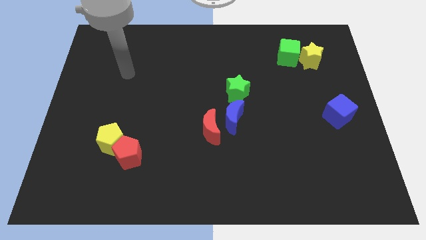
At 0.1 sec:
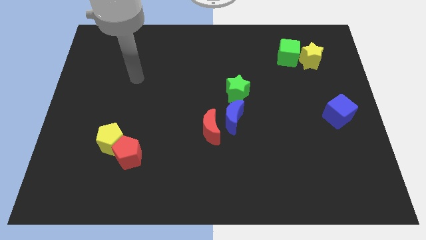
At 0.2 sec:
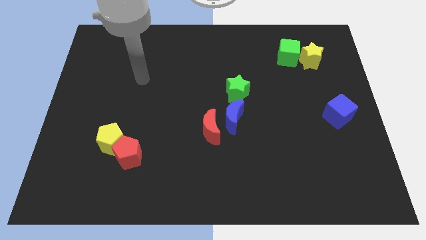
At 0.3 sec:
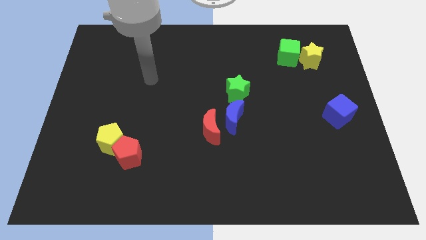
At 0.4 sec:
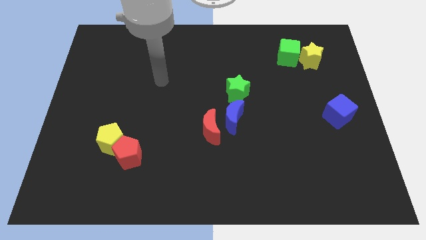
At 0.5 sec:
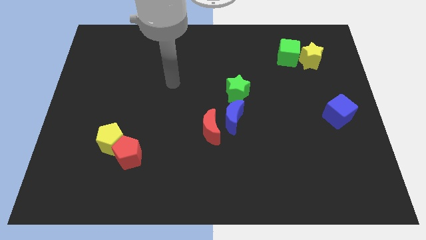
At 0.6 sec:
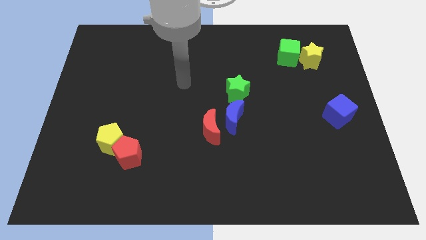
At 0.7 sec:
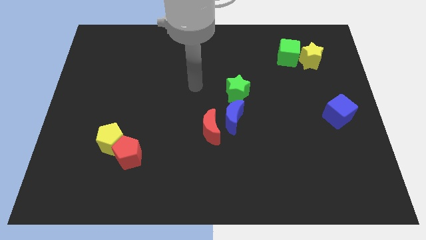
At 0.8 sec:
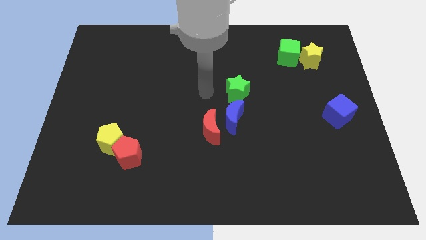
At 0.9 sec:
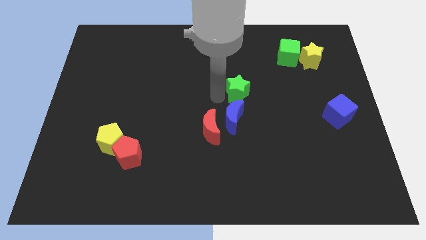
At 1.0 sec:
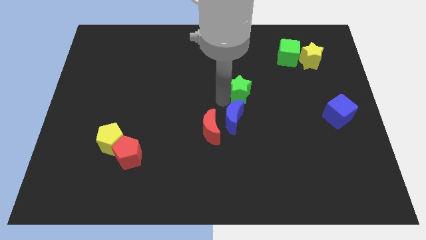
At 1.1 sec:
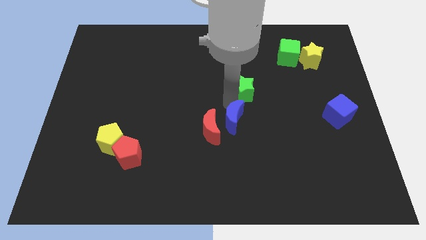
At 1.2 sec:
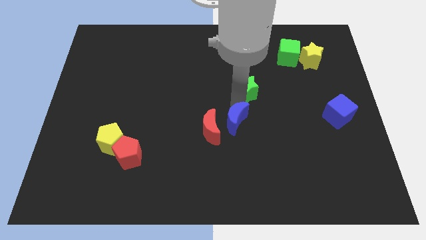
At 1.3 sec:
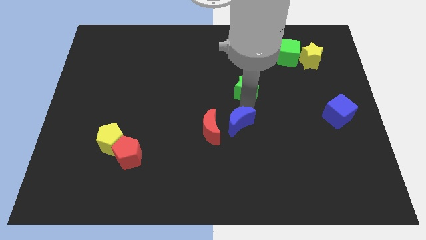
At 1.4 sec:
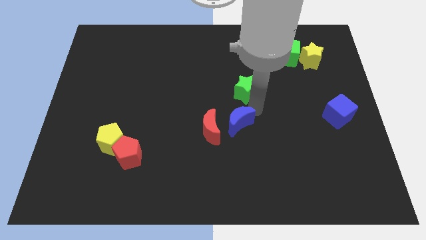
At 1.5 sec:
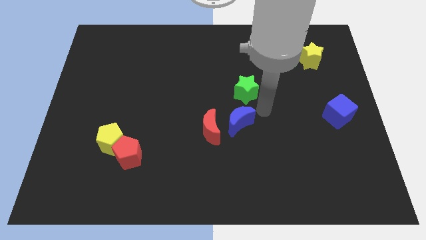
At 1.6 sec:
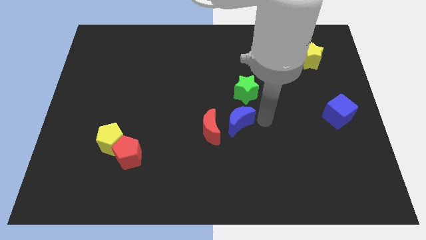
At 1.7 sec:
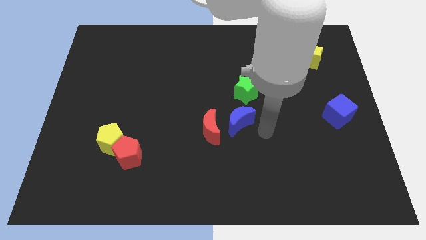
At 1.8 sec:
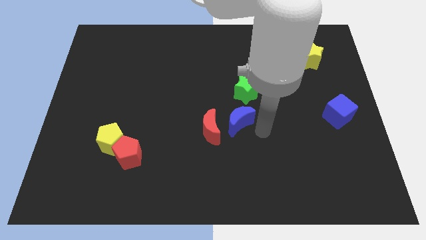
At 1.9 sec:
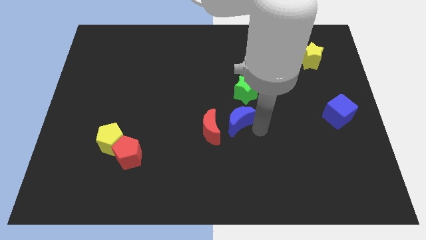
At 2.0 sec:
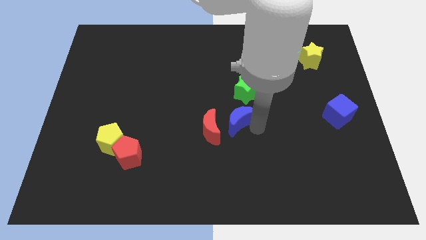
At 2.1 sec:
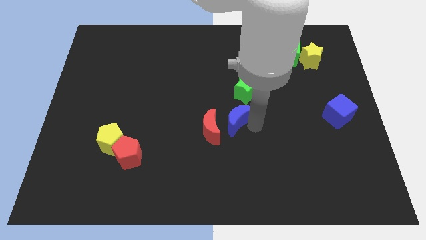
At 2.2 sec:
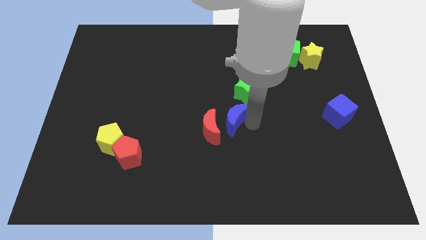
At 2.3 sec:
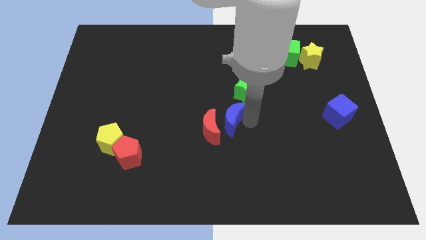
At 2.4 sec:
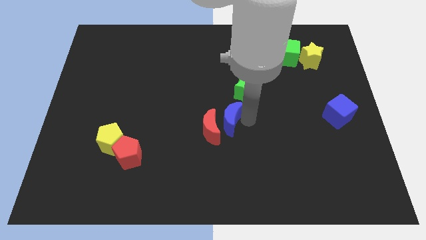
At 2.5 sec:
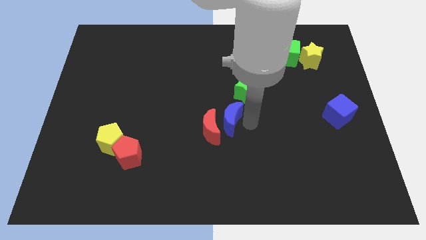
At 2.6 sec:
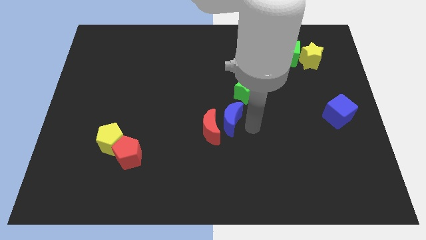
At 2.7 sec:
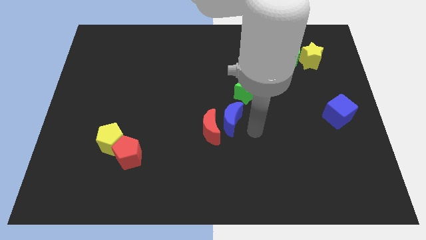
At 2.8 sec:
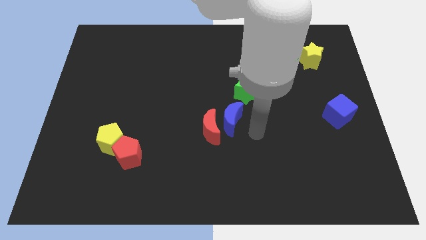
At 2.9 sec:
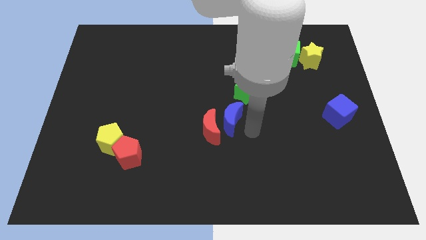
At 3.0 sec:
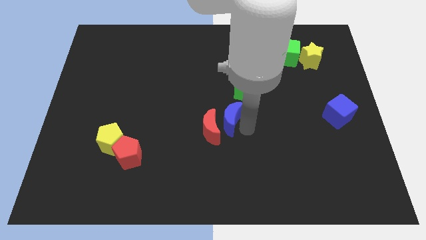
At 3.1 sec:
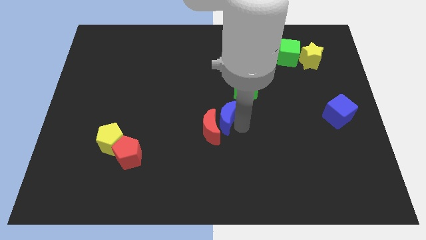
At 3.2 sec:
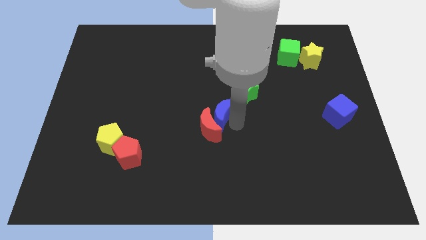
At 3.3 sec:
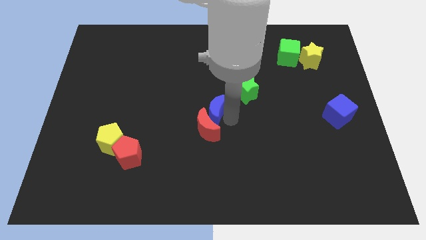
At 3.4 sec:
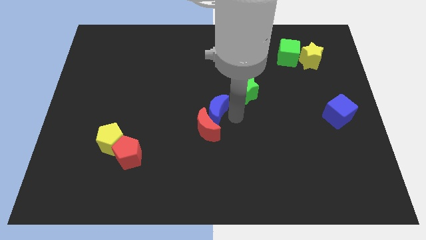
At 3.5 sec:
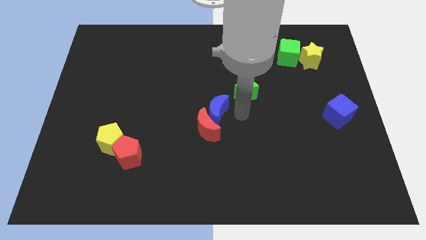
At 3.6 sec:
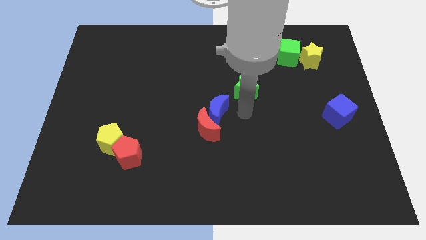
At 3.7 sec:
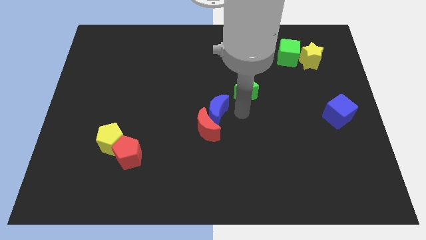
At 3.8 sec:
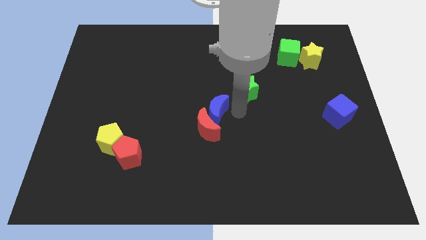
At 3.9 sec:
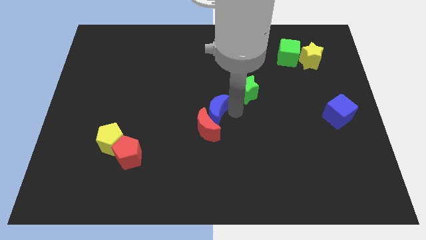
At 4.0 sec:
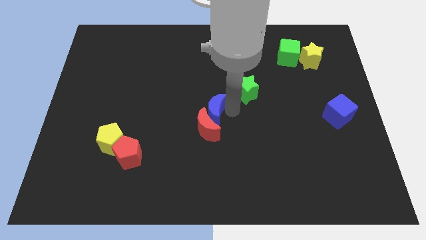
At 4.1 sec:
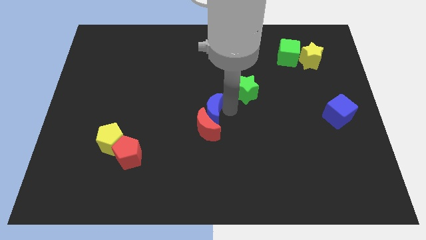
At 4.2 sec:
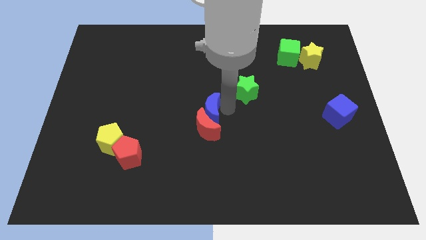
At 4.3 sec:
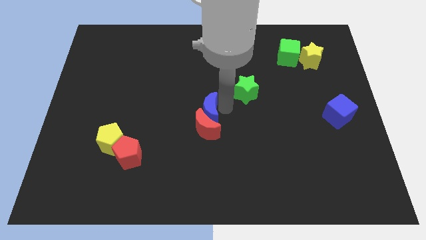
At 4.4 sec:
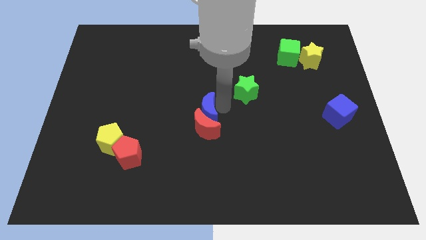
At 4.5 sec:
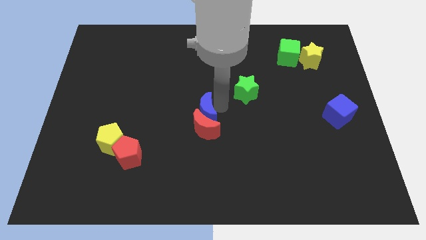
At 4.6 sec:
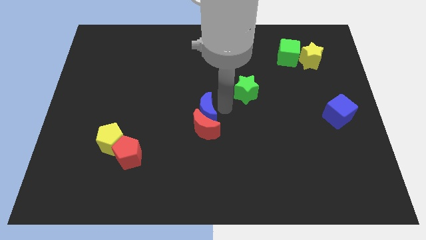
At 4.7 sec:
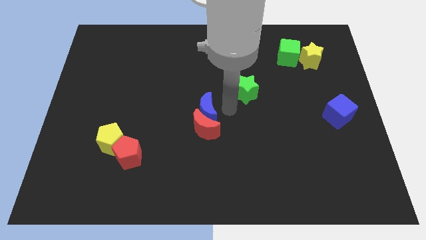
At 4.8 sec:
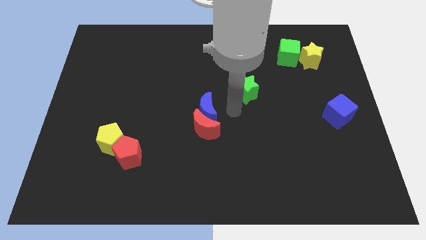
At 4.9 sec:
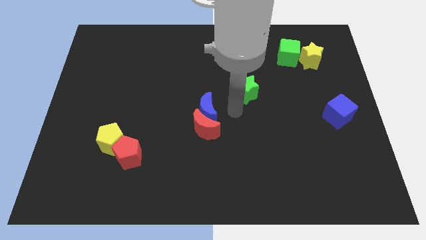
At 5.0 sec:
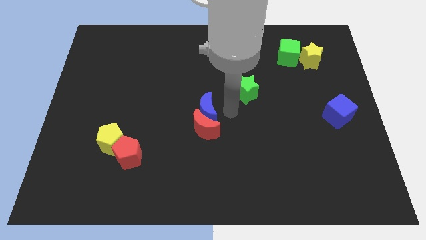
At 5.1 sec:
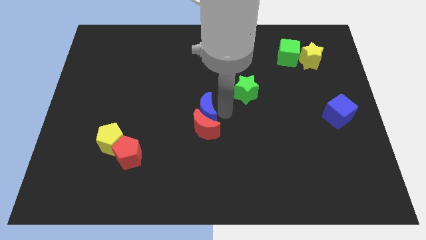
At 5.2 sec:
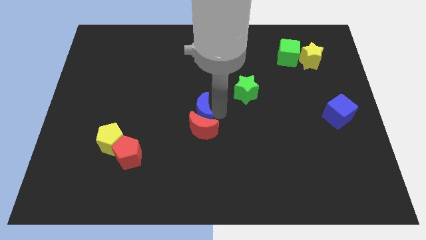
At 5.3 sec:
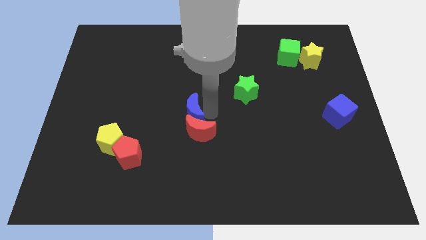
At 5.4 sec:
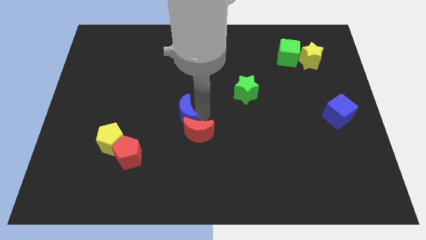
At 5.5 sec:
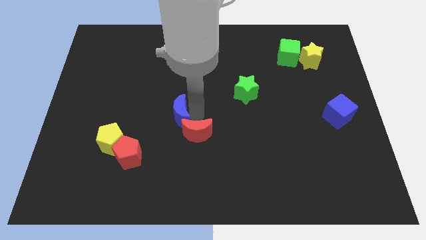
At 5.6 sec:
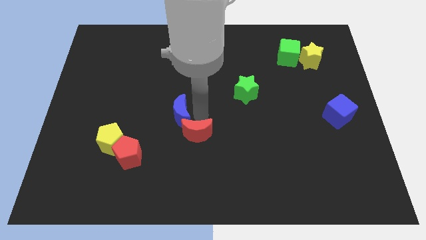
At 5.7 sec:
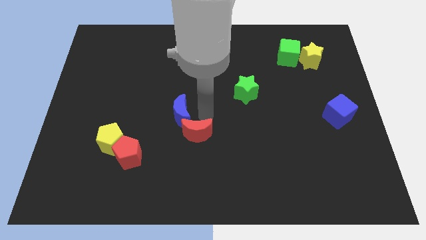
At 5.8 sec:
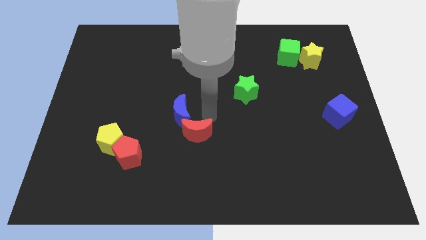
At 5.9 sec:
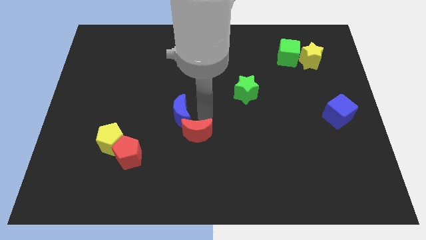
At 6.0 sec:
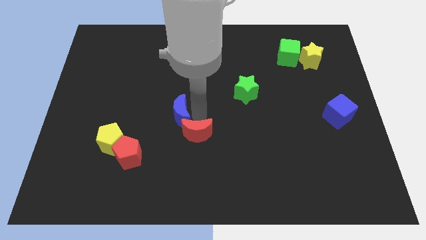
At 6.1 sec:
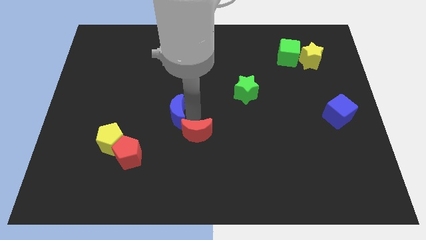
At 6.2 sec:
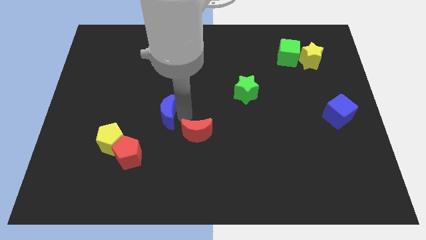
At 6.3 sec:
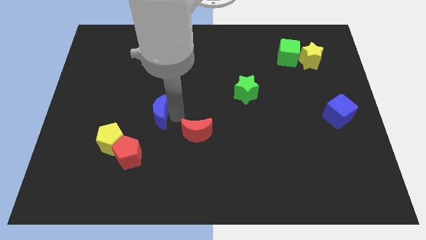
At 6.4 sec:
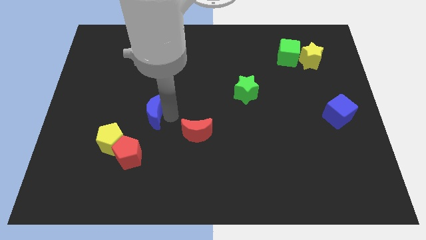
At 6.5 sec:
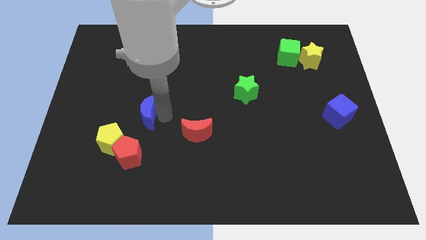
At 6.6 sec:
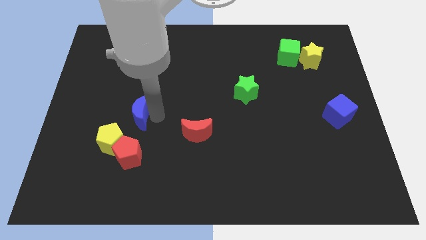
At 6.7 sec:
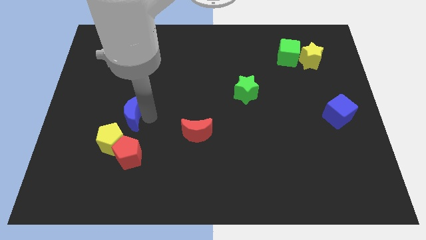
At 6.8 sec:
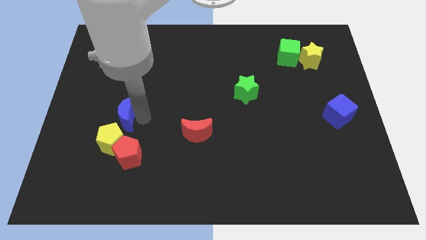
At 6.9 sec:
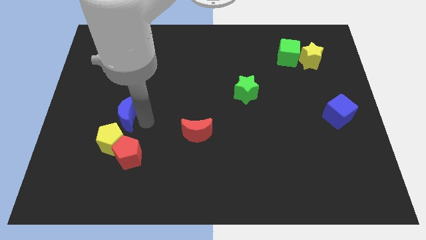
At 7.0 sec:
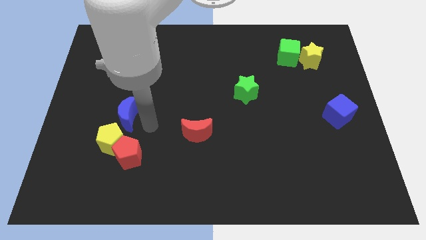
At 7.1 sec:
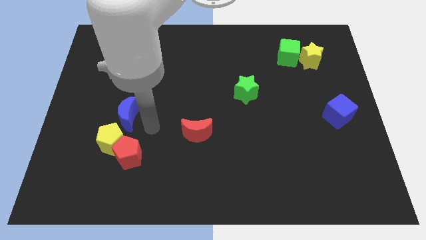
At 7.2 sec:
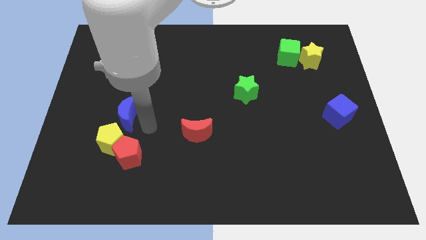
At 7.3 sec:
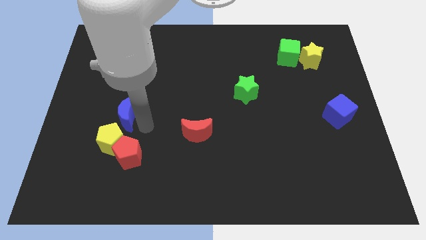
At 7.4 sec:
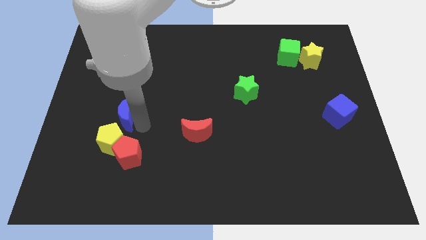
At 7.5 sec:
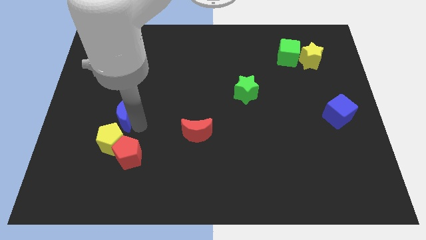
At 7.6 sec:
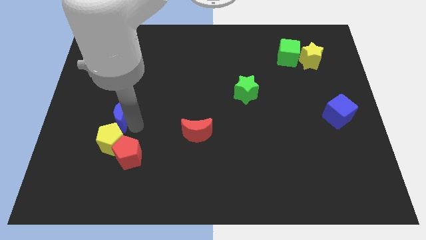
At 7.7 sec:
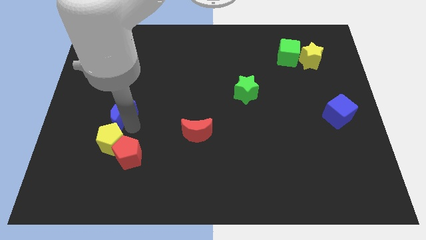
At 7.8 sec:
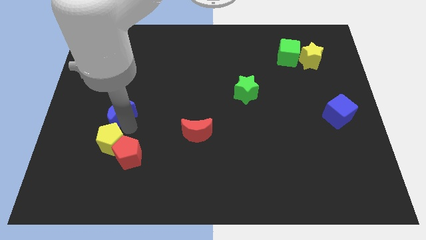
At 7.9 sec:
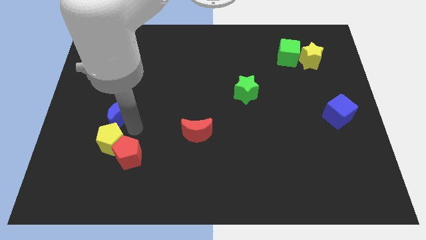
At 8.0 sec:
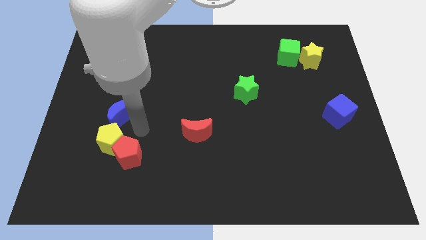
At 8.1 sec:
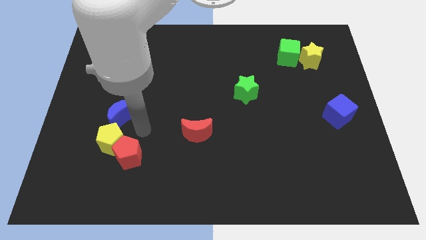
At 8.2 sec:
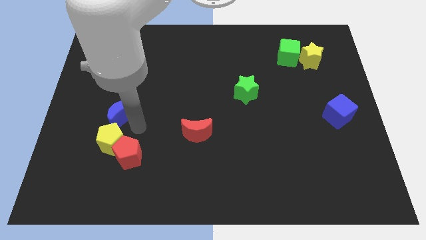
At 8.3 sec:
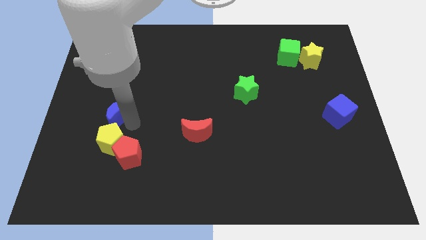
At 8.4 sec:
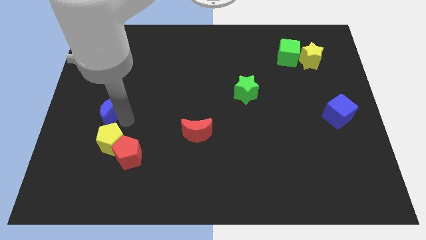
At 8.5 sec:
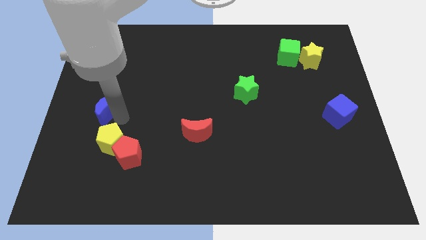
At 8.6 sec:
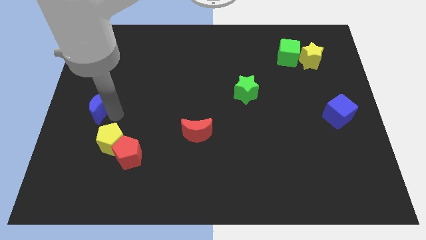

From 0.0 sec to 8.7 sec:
slide the blue moon to the left side
